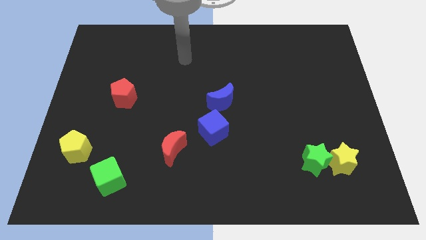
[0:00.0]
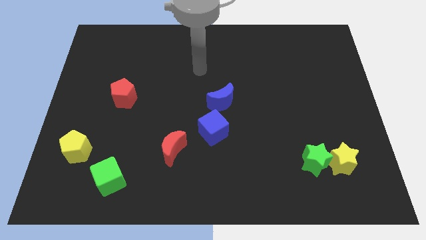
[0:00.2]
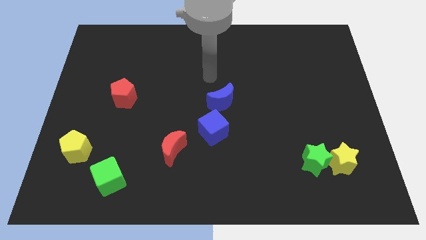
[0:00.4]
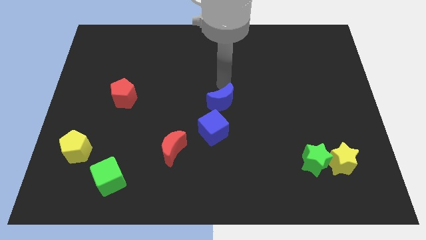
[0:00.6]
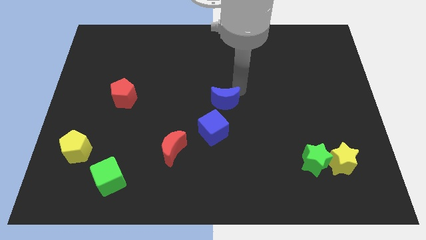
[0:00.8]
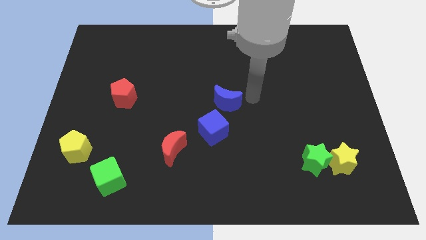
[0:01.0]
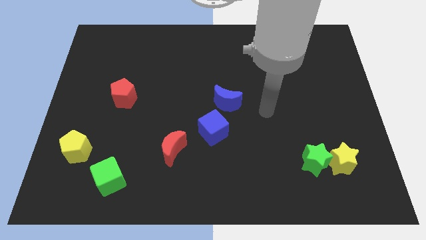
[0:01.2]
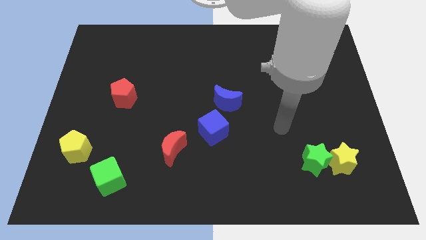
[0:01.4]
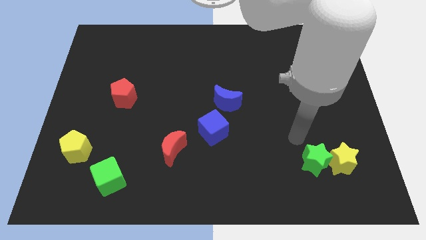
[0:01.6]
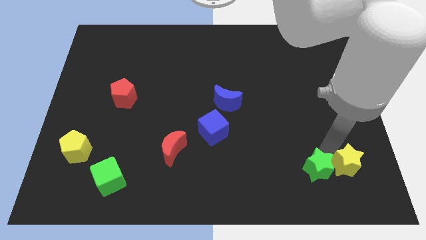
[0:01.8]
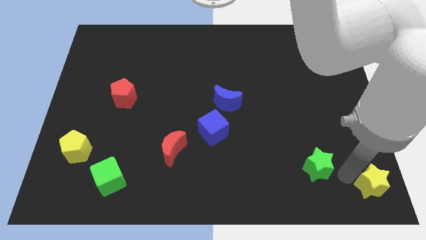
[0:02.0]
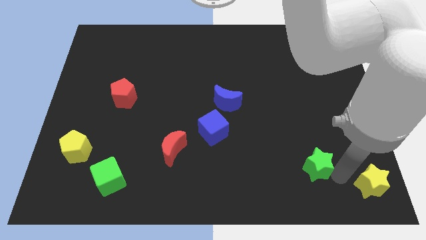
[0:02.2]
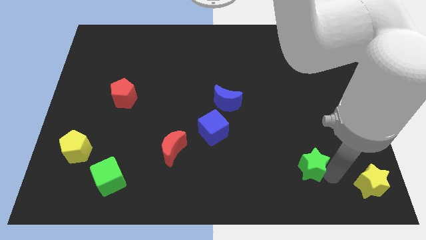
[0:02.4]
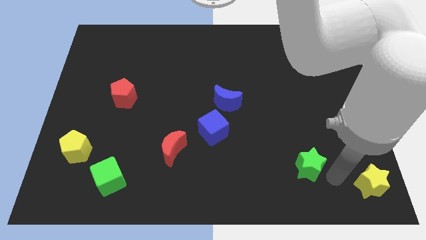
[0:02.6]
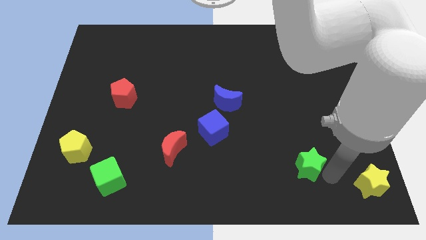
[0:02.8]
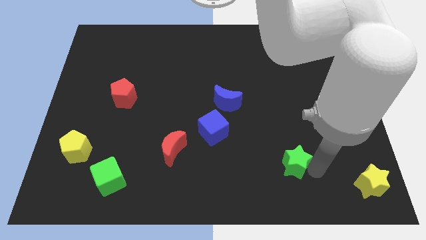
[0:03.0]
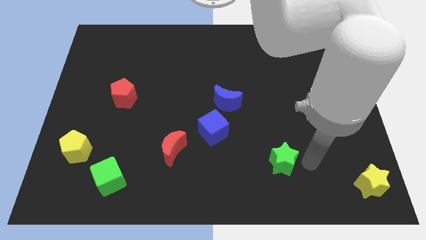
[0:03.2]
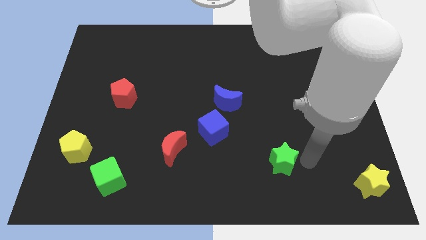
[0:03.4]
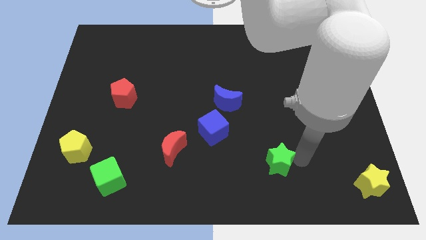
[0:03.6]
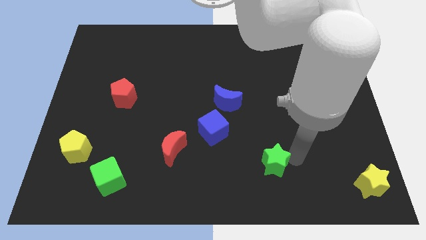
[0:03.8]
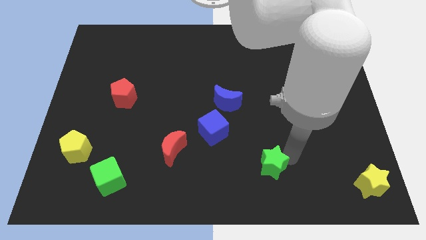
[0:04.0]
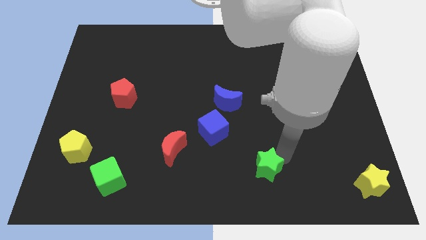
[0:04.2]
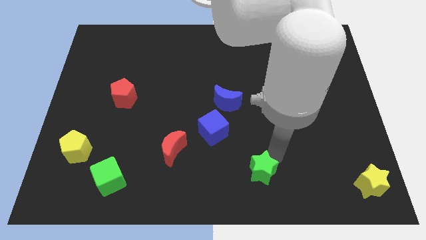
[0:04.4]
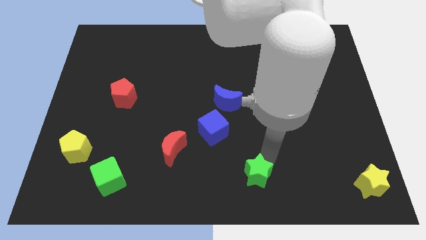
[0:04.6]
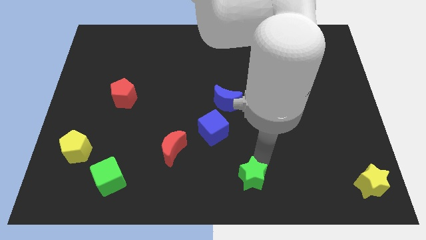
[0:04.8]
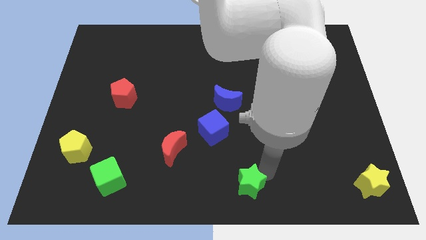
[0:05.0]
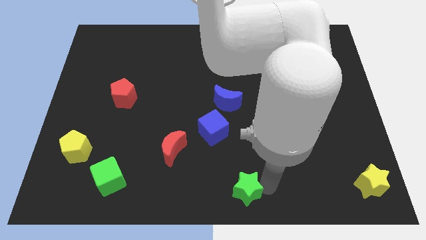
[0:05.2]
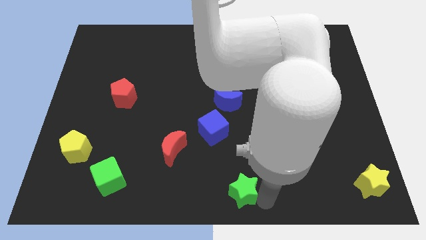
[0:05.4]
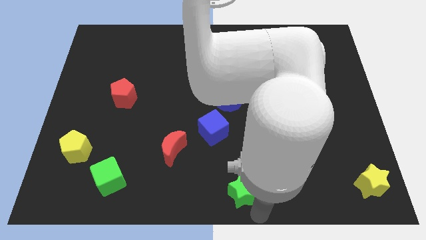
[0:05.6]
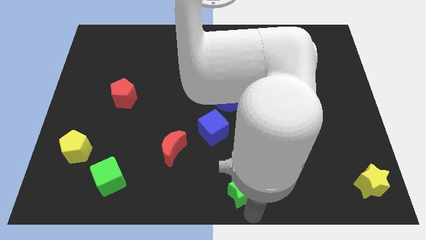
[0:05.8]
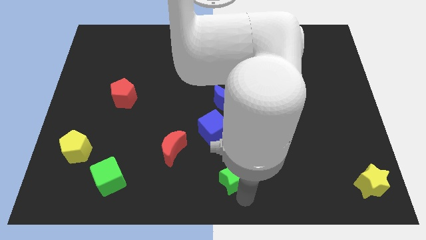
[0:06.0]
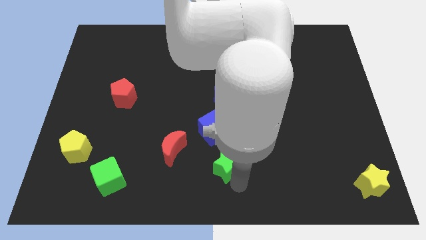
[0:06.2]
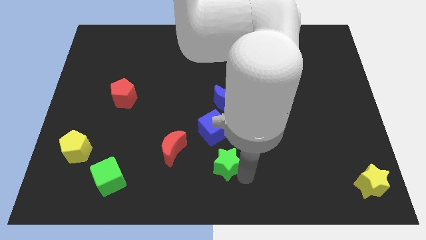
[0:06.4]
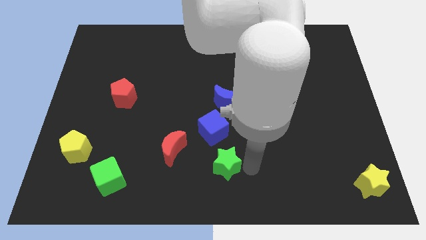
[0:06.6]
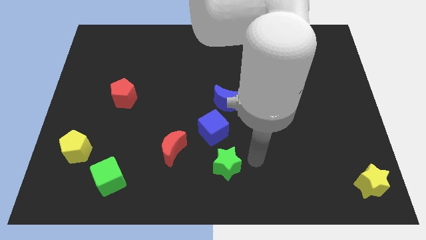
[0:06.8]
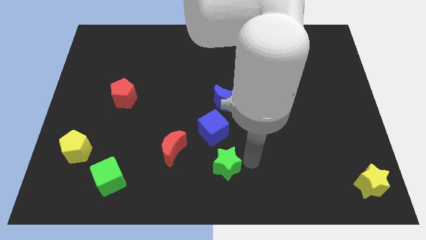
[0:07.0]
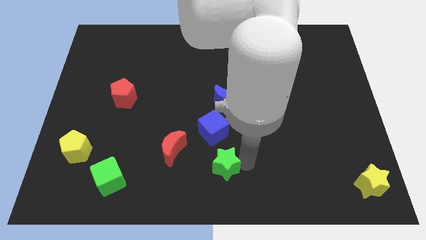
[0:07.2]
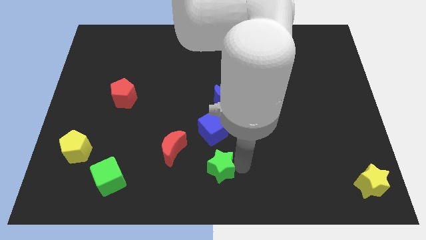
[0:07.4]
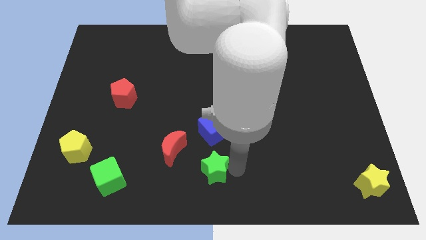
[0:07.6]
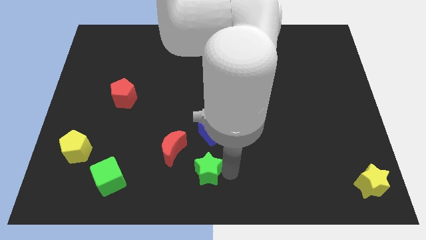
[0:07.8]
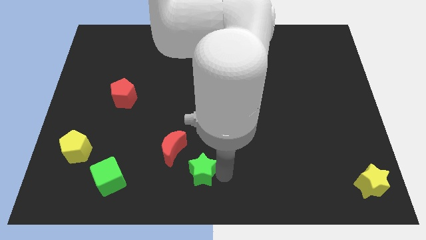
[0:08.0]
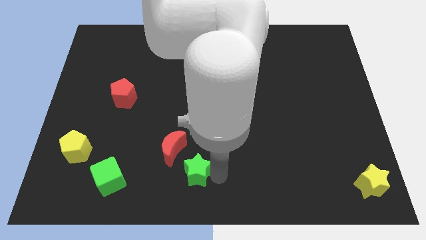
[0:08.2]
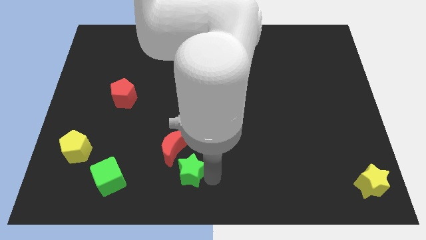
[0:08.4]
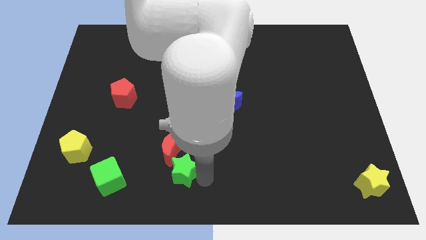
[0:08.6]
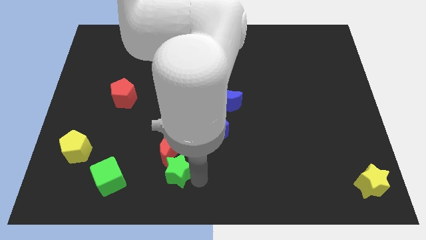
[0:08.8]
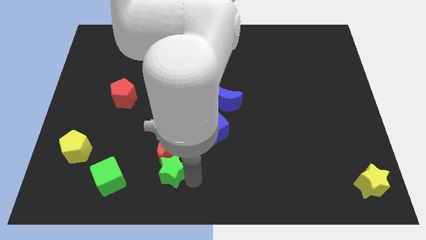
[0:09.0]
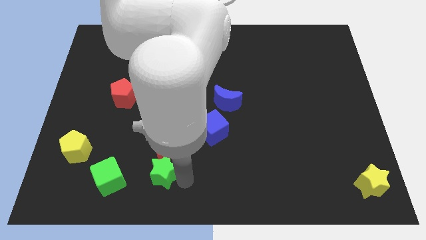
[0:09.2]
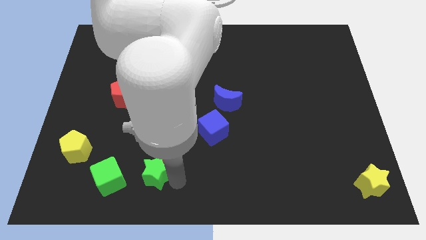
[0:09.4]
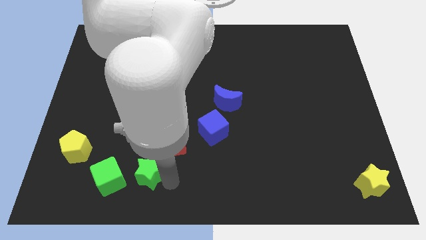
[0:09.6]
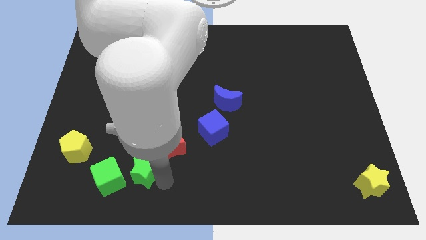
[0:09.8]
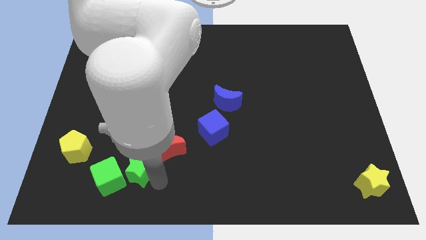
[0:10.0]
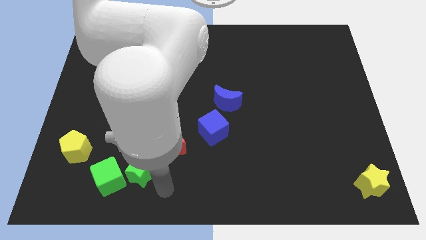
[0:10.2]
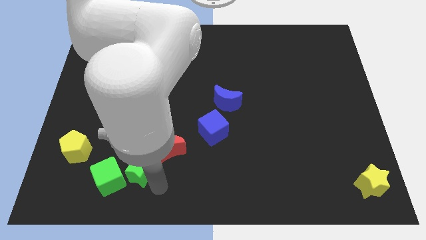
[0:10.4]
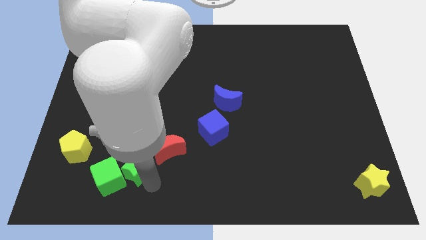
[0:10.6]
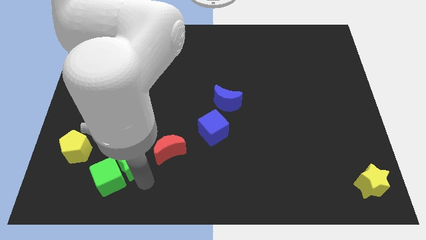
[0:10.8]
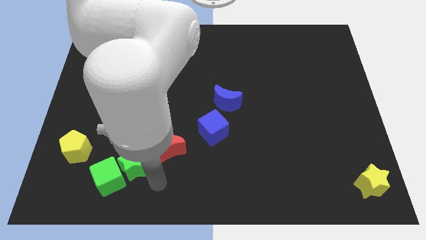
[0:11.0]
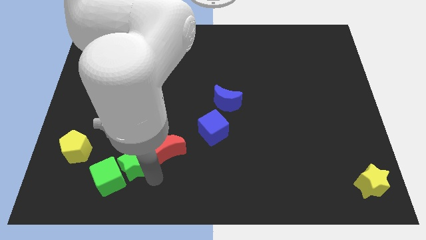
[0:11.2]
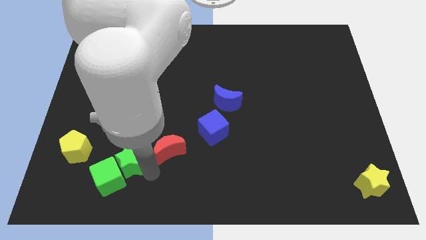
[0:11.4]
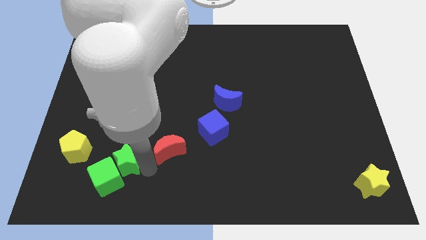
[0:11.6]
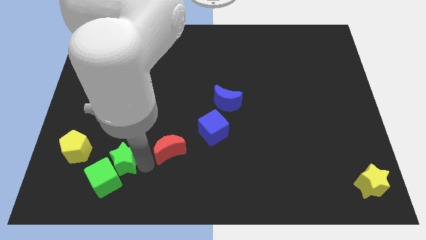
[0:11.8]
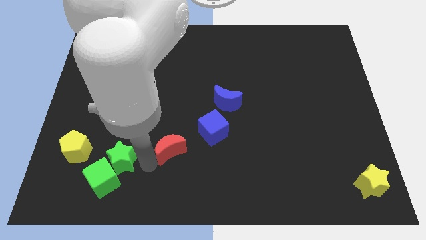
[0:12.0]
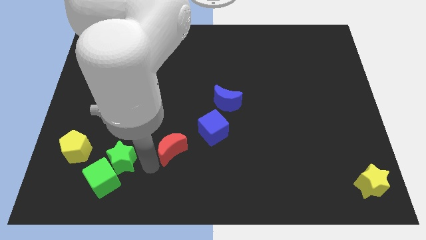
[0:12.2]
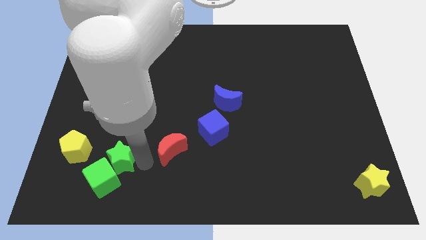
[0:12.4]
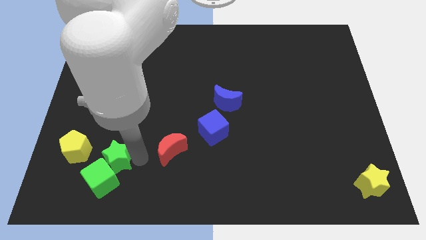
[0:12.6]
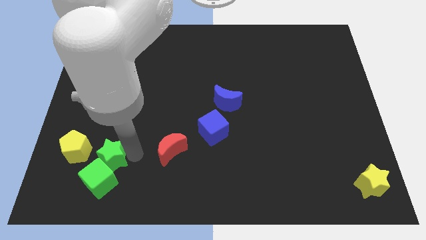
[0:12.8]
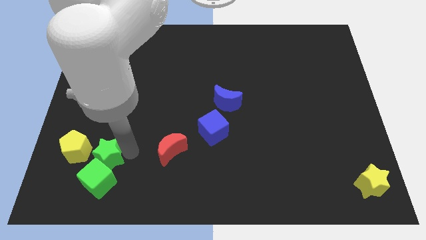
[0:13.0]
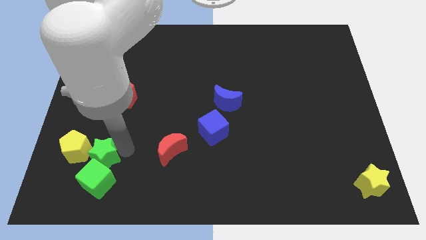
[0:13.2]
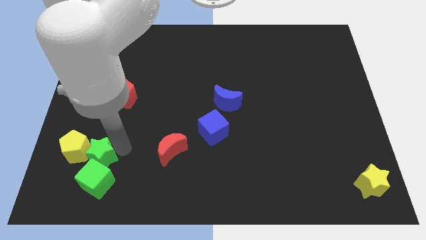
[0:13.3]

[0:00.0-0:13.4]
push the green star close to the yellow pentagon
